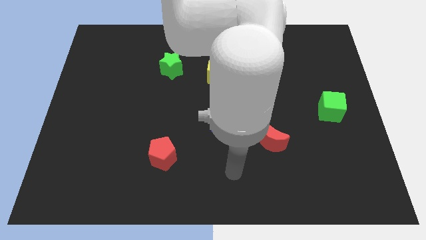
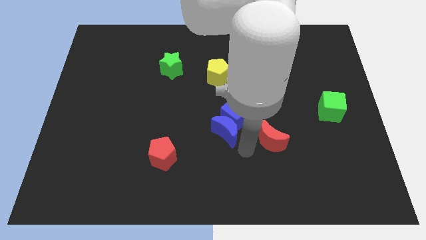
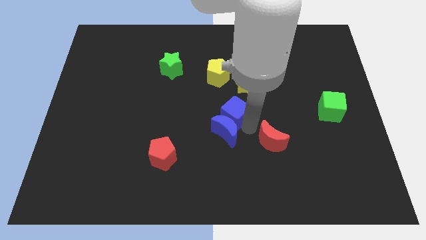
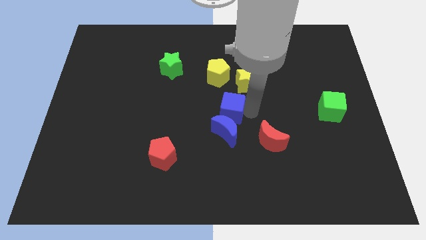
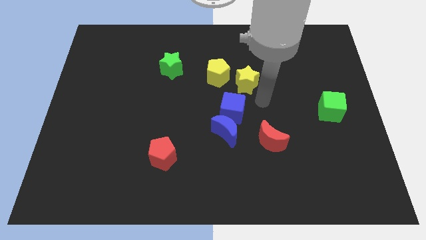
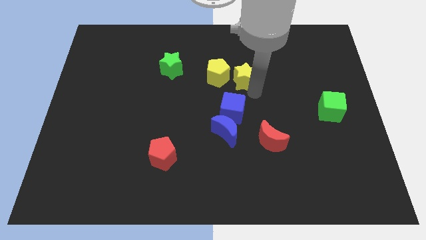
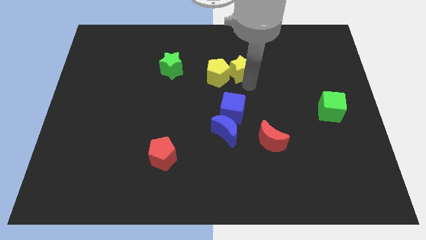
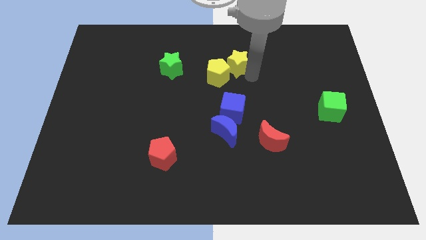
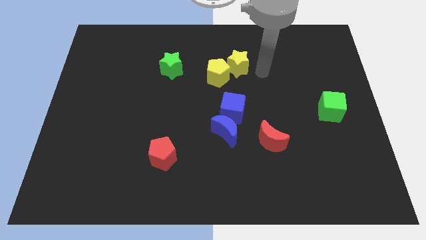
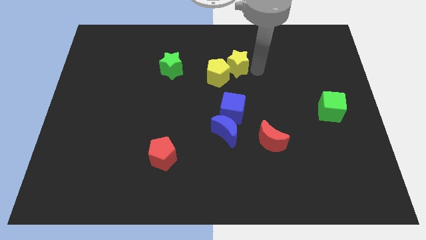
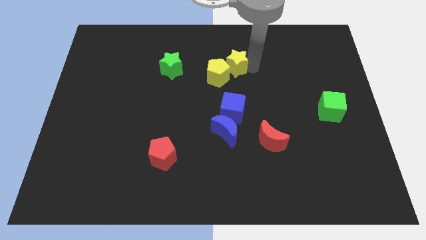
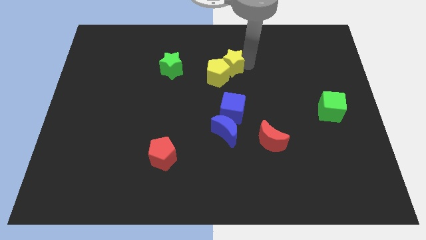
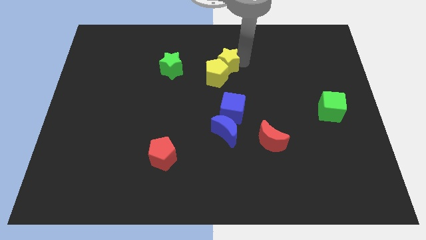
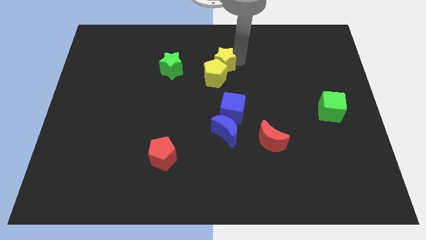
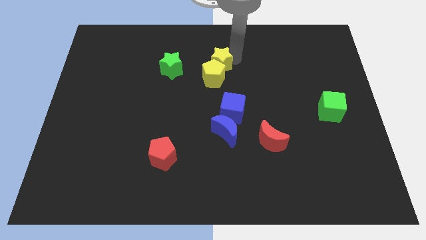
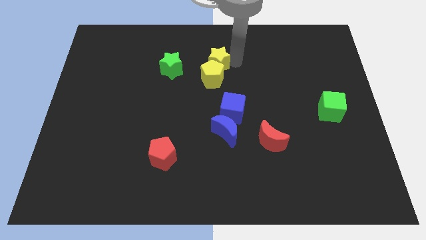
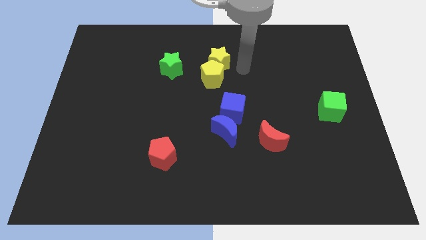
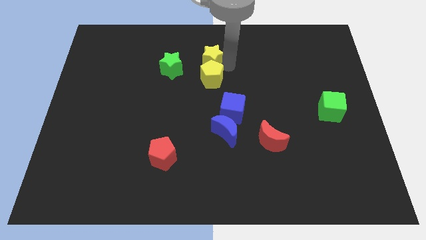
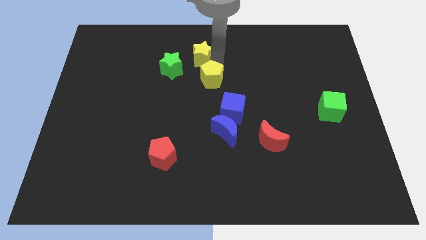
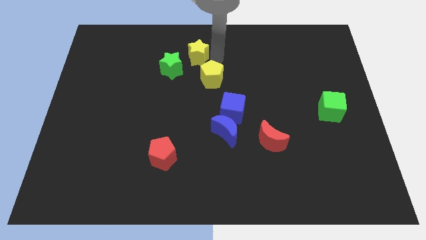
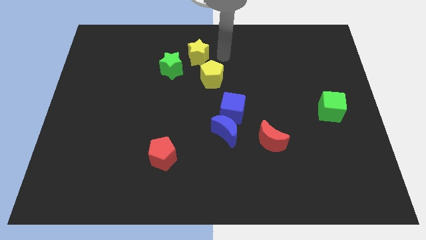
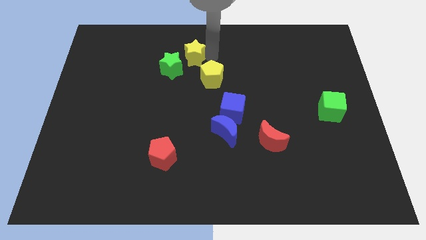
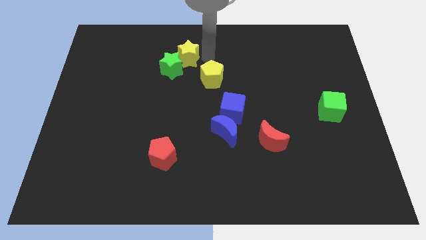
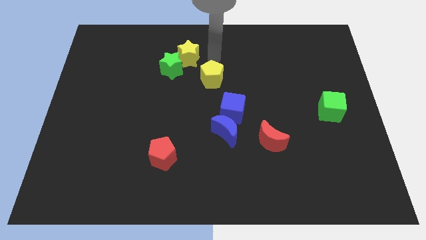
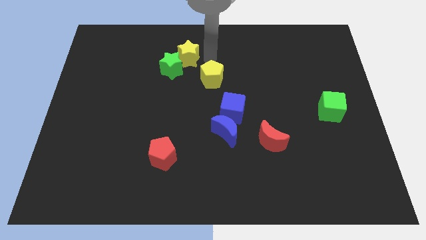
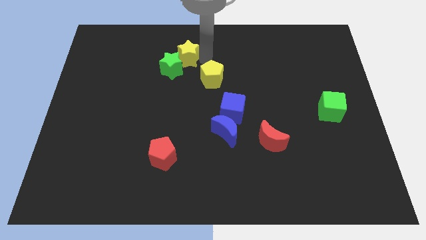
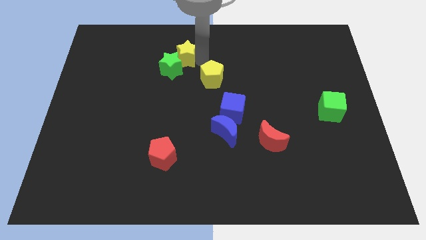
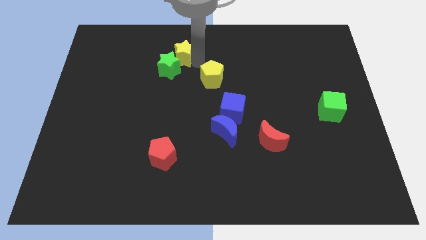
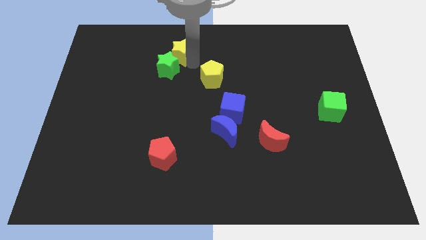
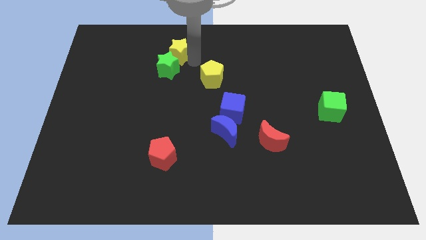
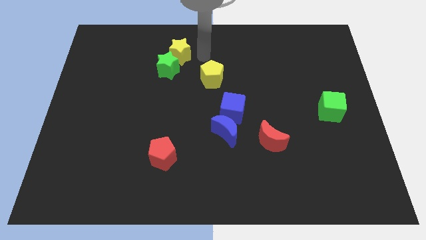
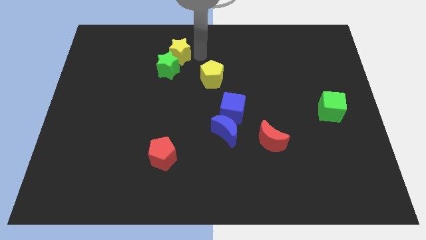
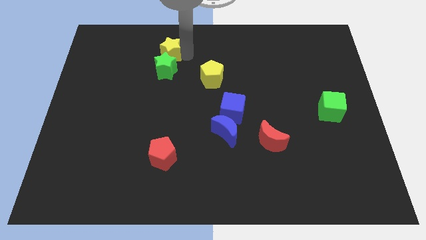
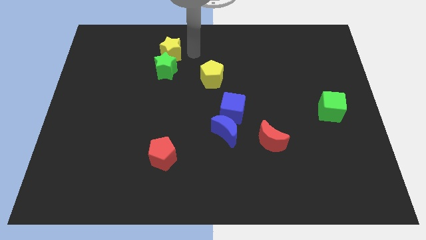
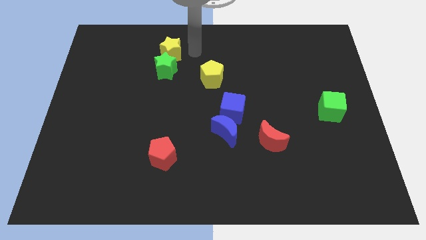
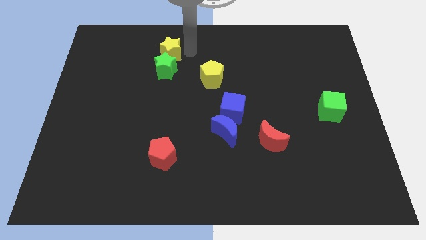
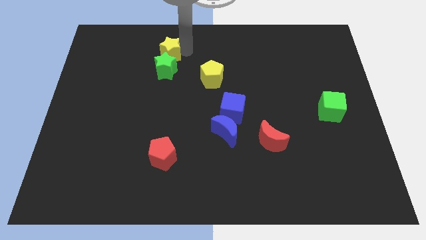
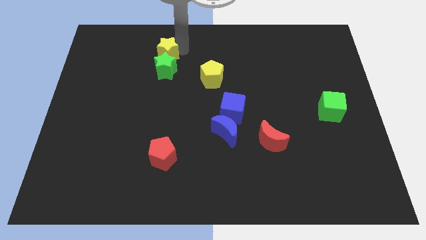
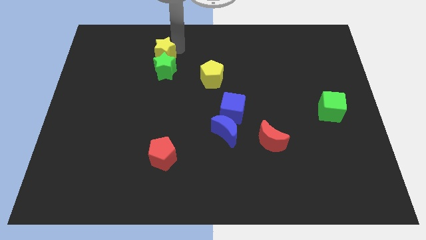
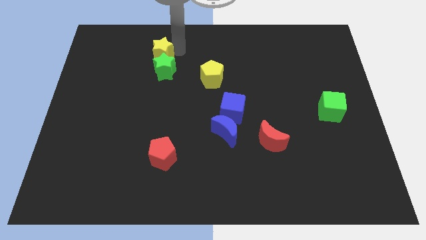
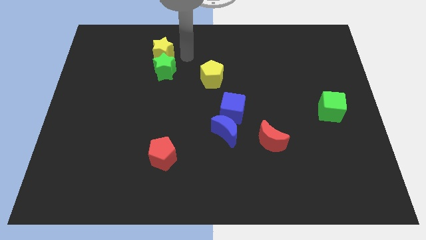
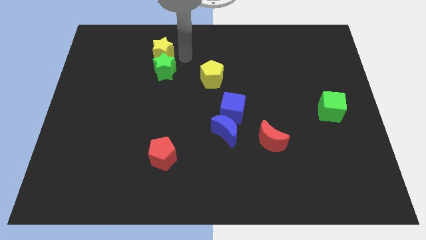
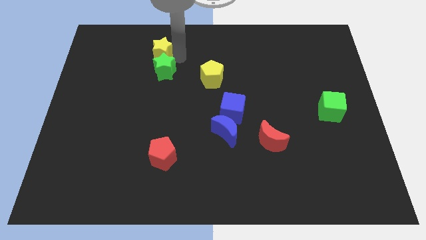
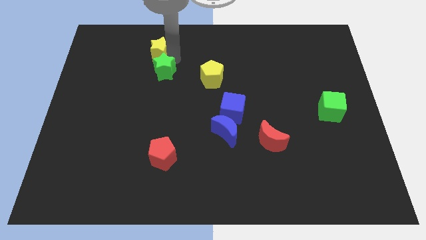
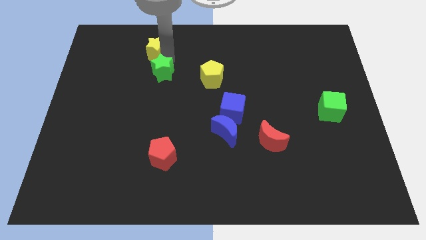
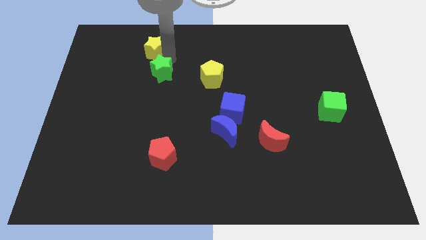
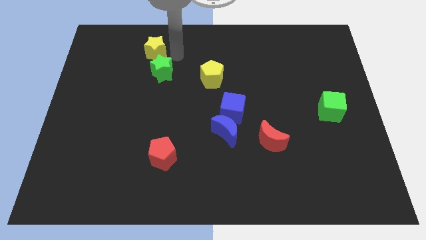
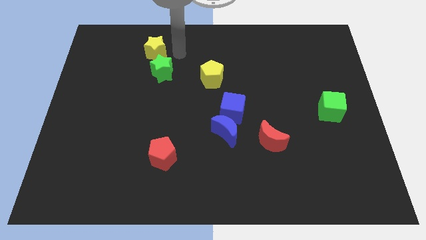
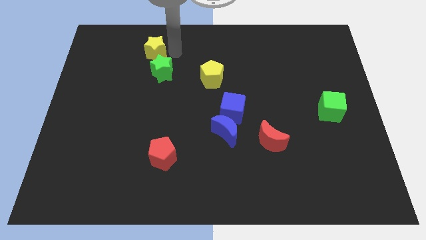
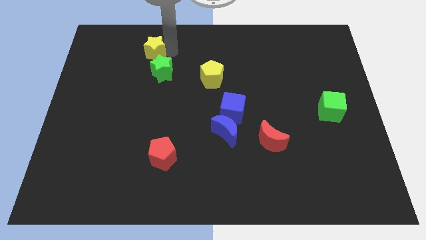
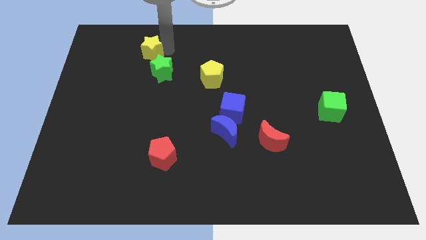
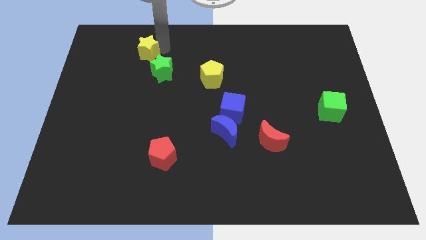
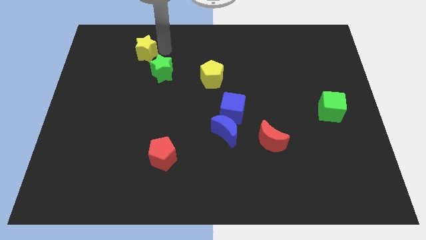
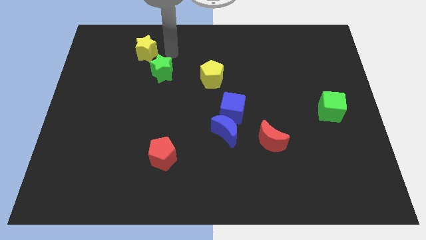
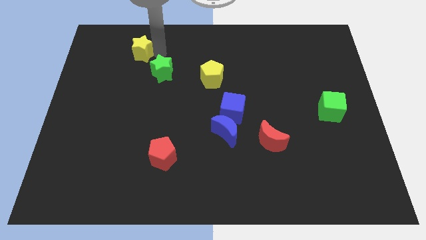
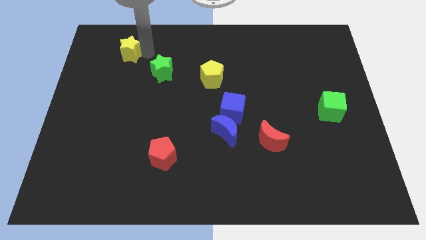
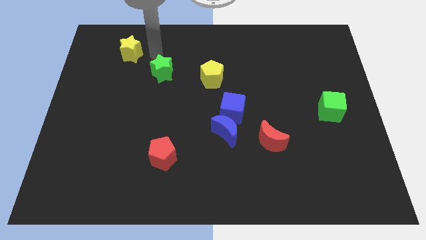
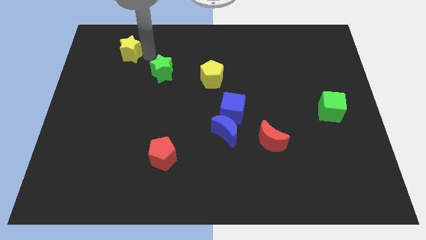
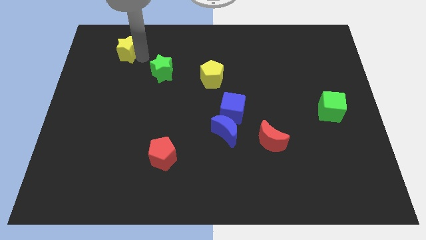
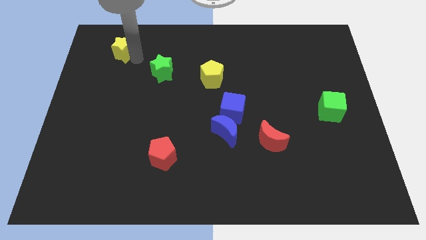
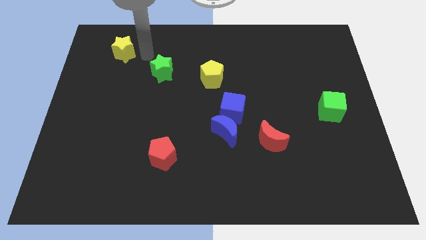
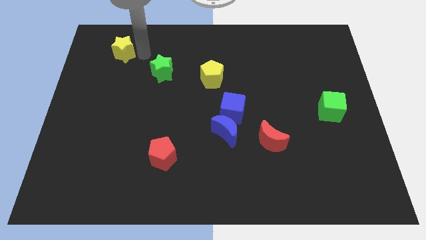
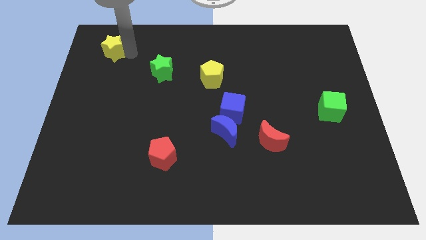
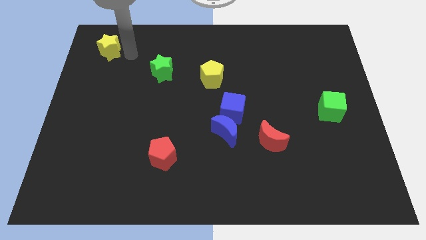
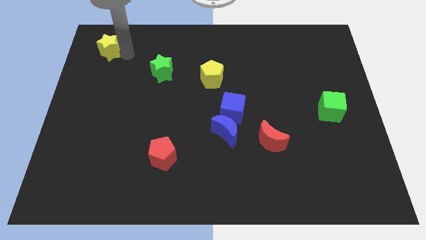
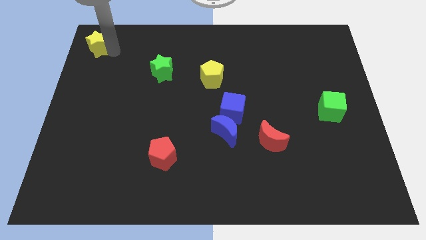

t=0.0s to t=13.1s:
push the yellow star to the top left corner
